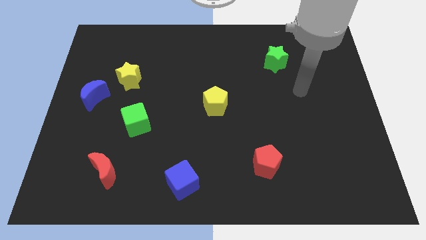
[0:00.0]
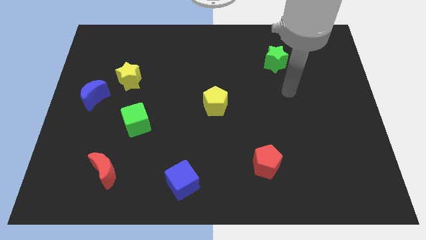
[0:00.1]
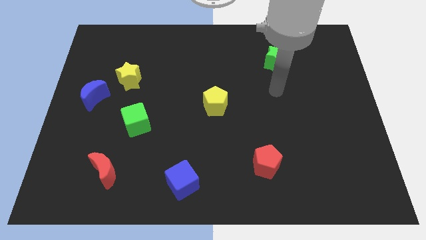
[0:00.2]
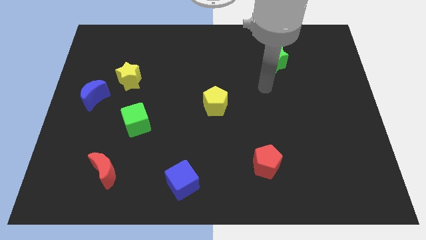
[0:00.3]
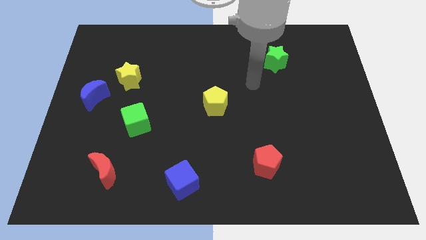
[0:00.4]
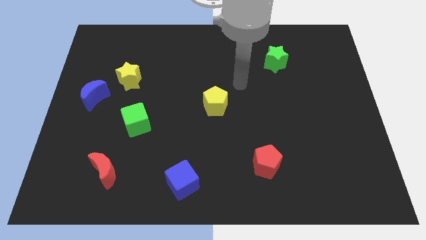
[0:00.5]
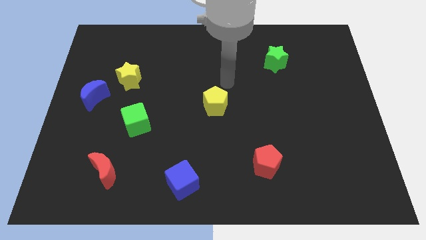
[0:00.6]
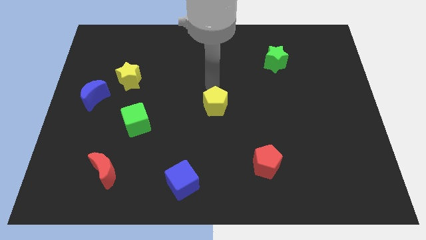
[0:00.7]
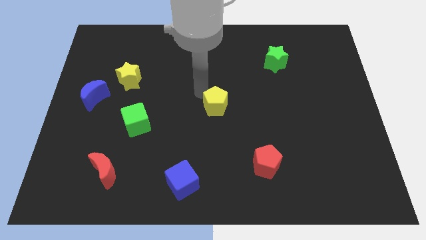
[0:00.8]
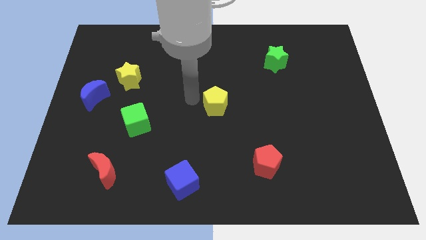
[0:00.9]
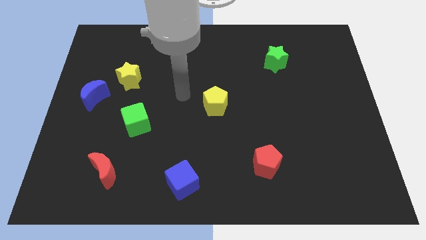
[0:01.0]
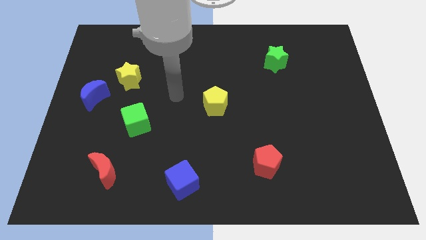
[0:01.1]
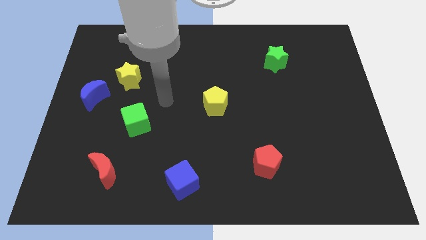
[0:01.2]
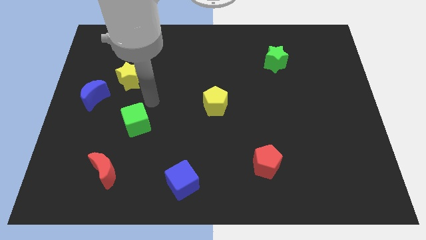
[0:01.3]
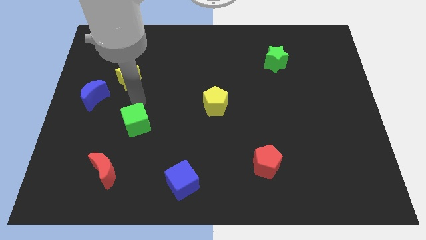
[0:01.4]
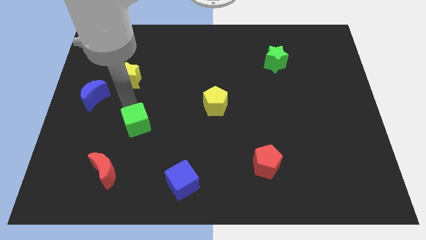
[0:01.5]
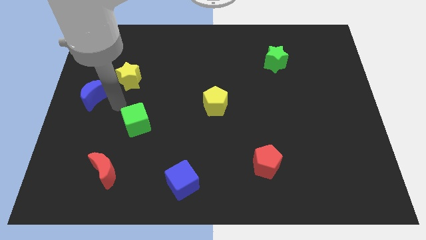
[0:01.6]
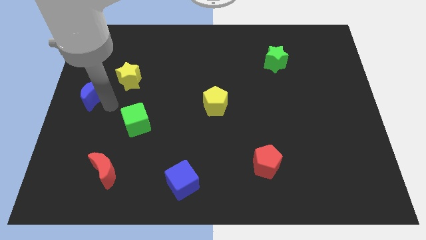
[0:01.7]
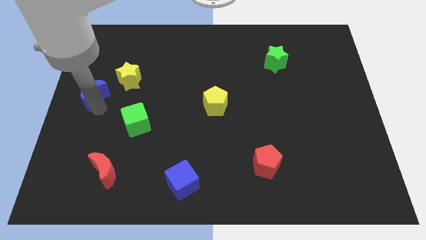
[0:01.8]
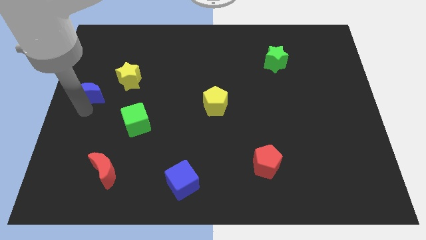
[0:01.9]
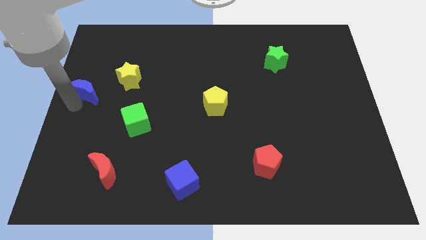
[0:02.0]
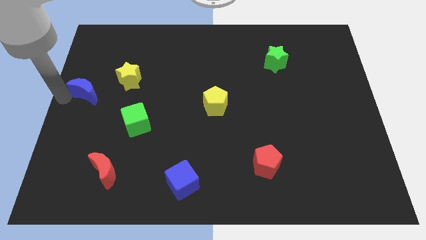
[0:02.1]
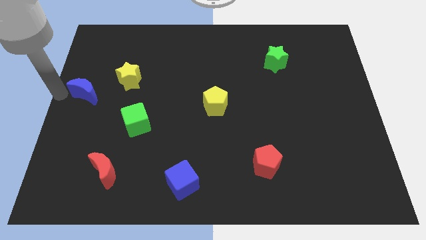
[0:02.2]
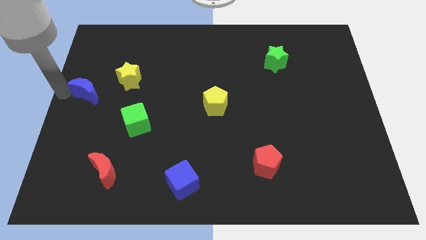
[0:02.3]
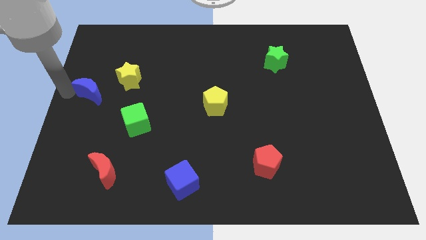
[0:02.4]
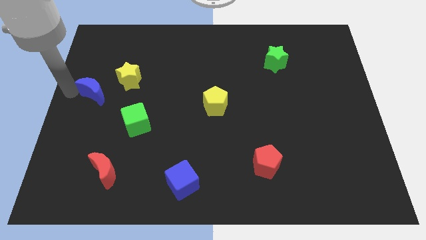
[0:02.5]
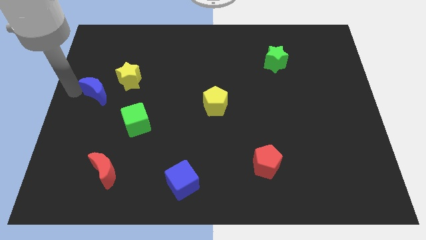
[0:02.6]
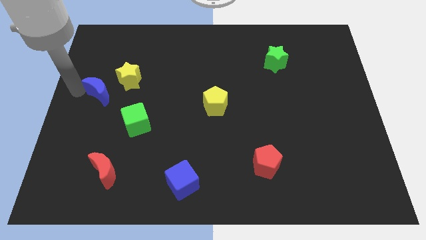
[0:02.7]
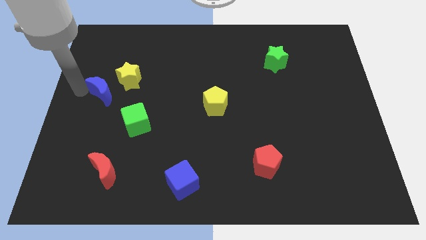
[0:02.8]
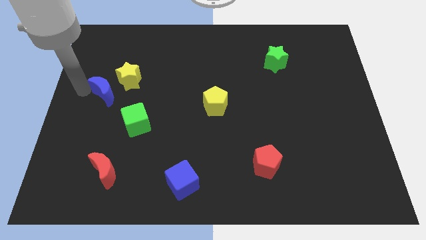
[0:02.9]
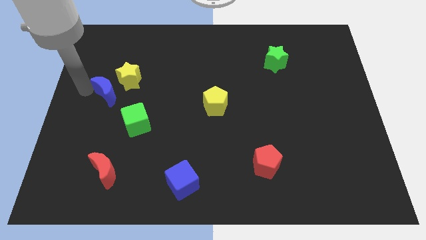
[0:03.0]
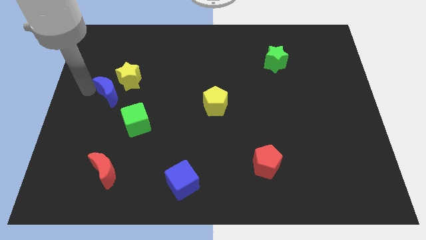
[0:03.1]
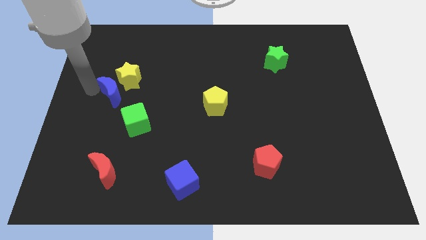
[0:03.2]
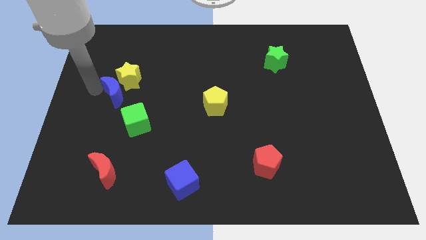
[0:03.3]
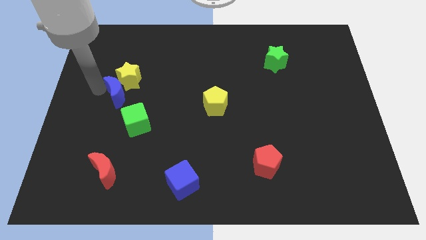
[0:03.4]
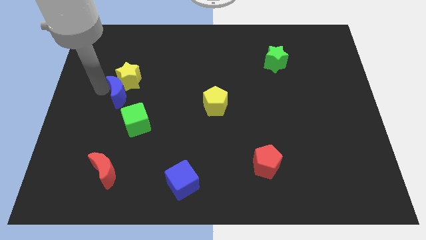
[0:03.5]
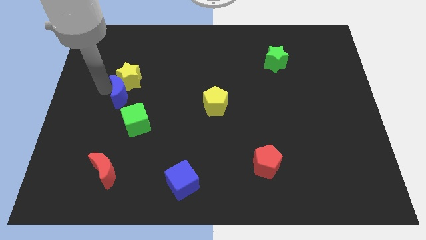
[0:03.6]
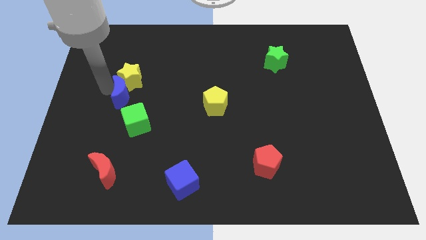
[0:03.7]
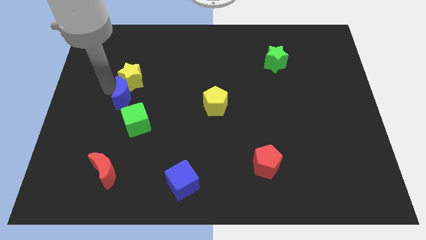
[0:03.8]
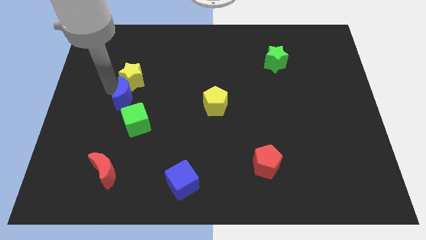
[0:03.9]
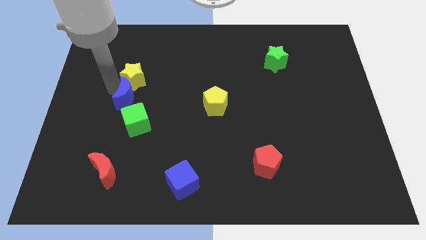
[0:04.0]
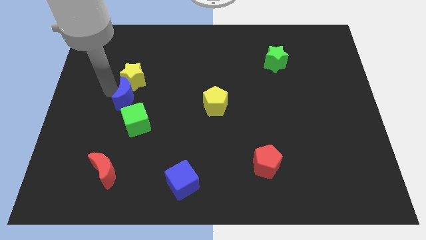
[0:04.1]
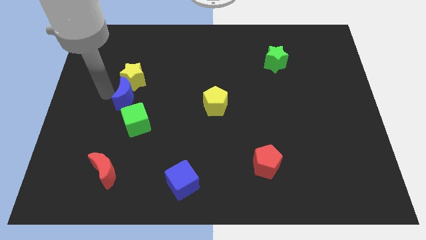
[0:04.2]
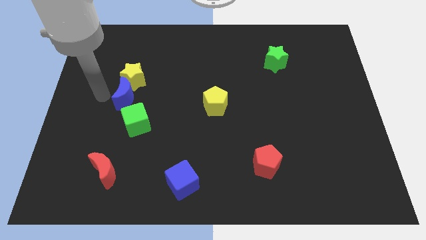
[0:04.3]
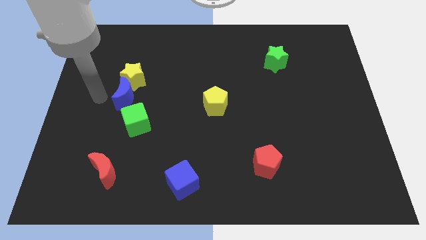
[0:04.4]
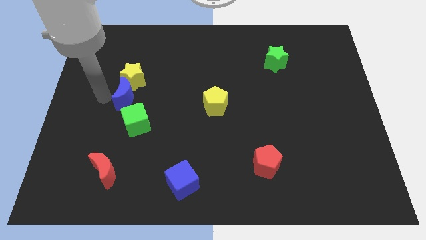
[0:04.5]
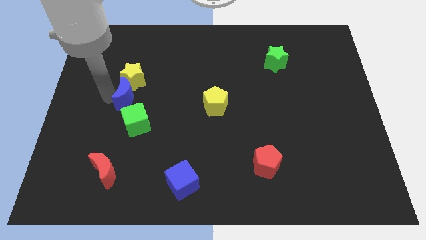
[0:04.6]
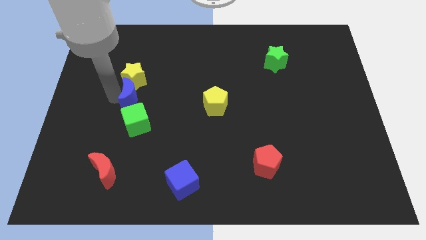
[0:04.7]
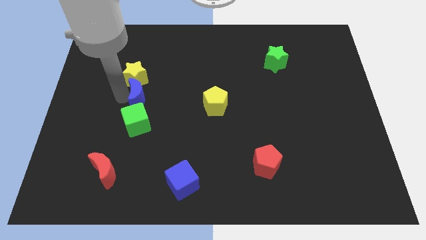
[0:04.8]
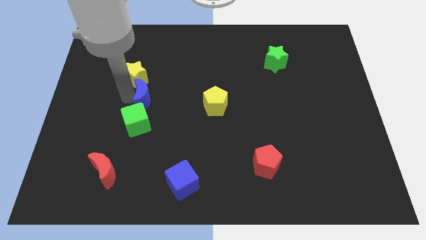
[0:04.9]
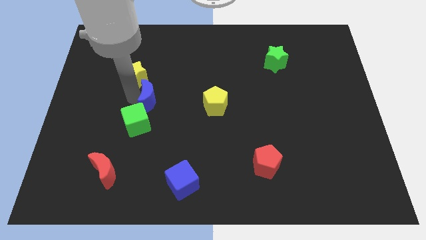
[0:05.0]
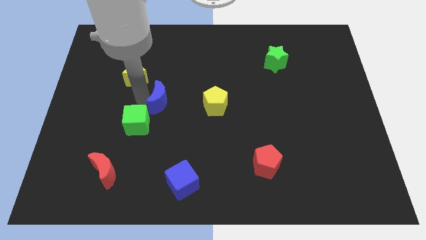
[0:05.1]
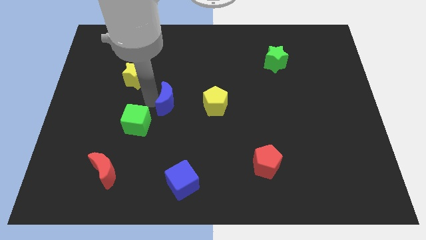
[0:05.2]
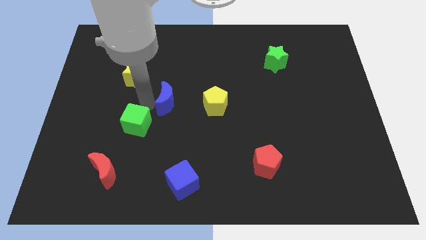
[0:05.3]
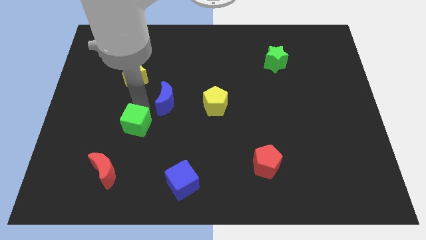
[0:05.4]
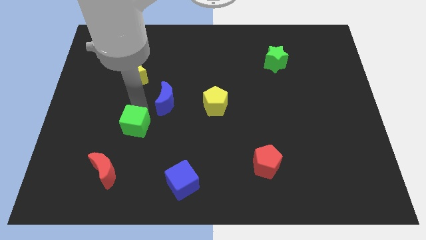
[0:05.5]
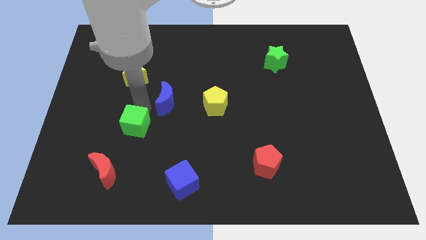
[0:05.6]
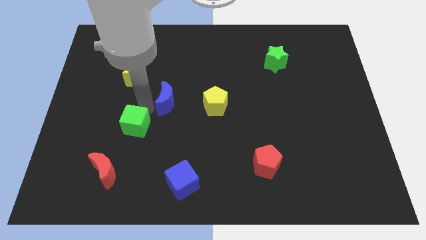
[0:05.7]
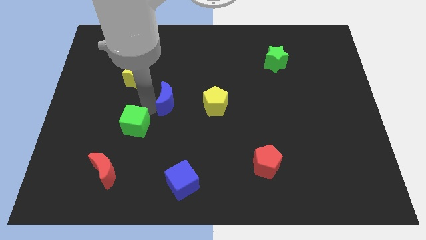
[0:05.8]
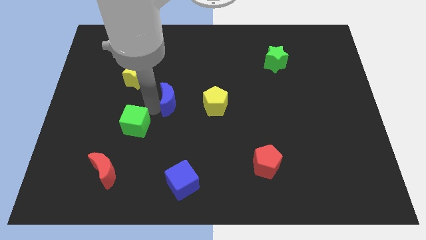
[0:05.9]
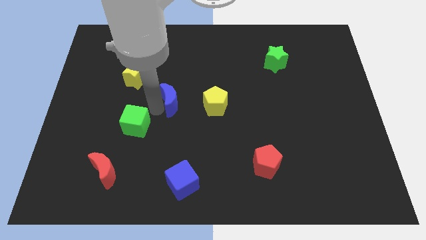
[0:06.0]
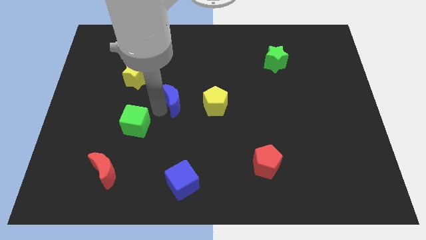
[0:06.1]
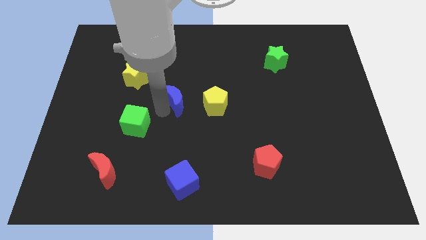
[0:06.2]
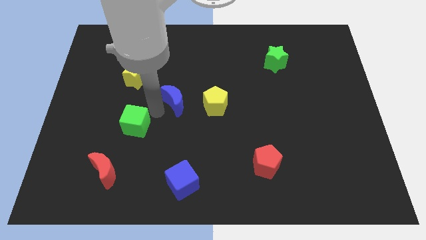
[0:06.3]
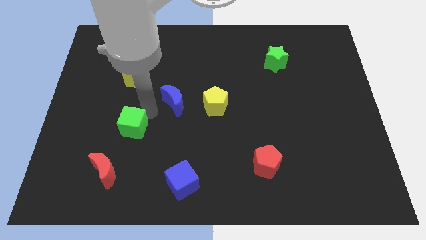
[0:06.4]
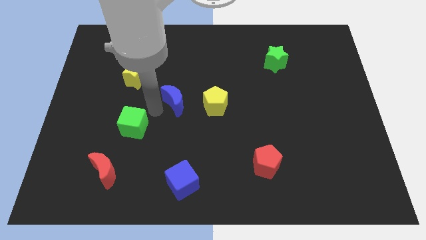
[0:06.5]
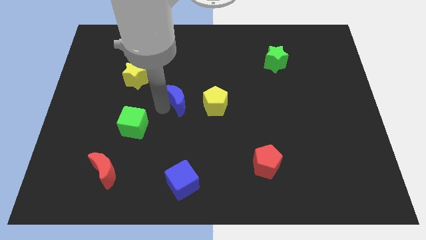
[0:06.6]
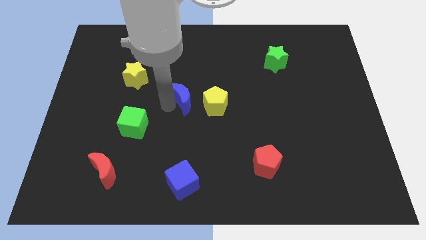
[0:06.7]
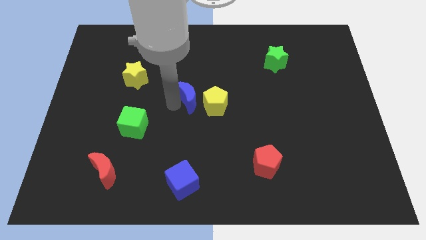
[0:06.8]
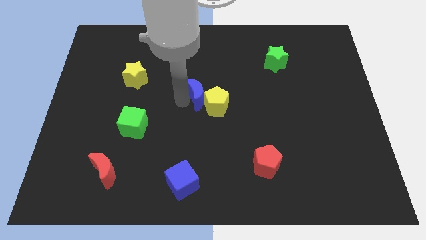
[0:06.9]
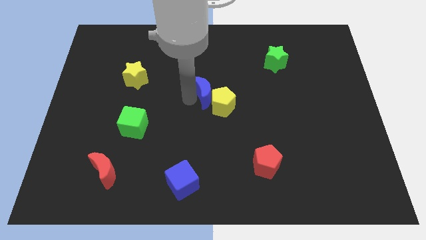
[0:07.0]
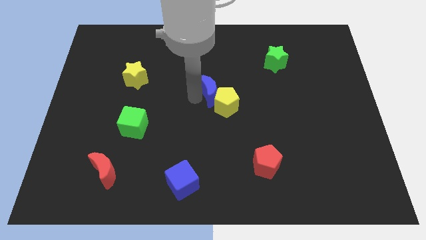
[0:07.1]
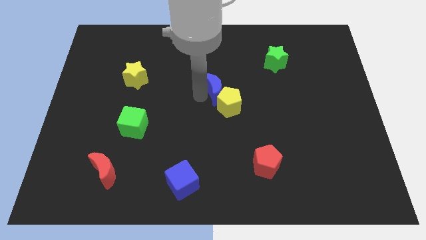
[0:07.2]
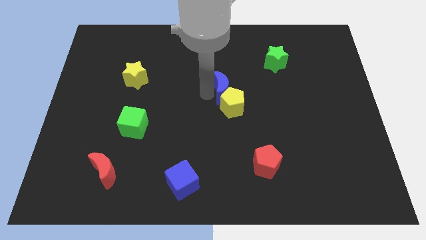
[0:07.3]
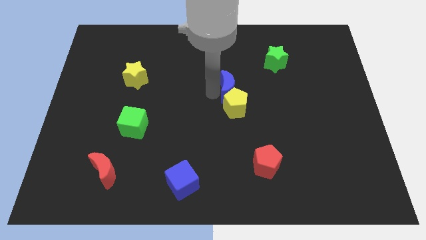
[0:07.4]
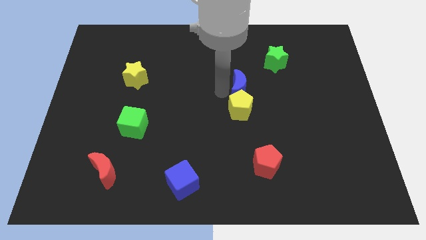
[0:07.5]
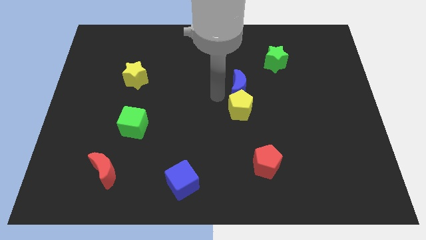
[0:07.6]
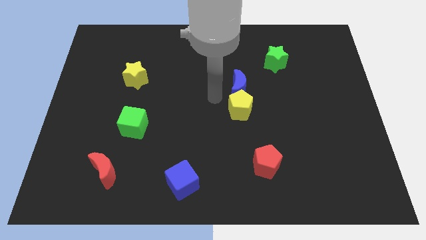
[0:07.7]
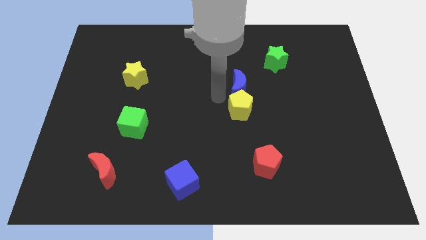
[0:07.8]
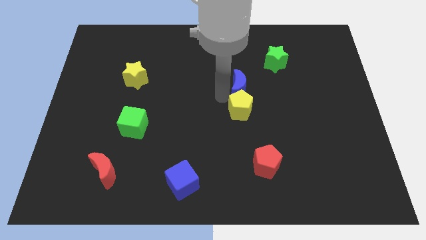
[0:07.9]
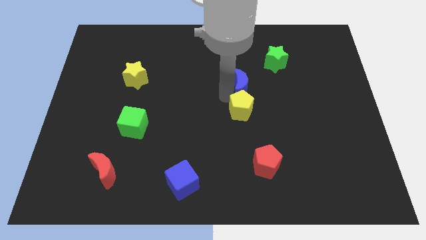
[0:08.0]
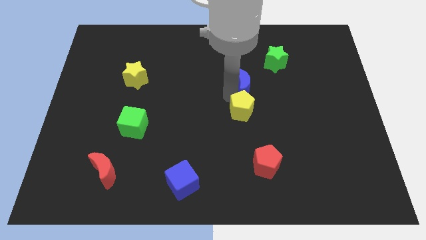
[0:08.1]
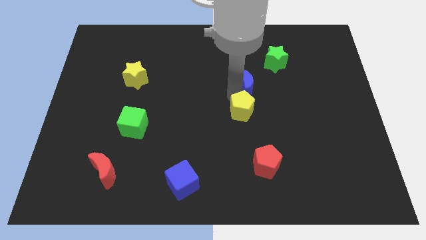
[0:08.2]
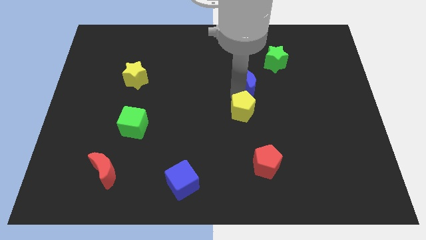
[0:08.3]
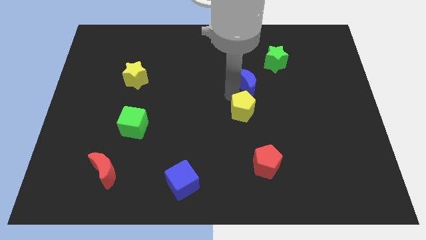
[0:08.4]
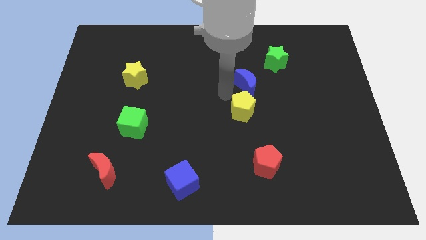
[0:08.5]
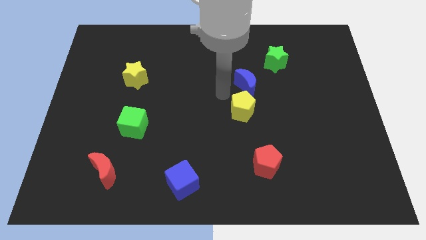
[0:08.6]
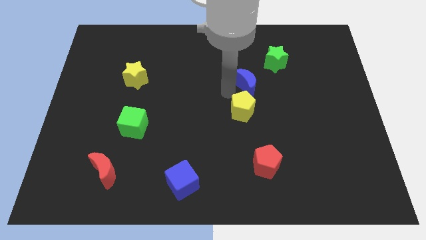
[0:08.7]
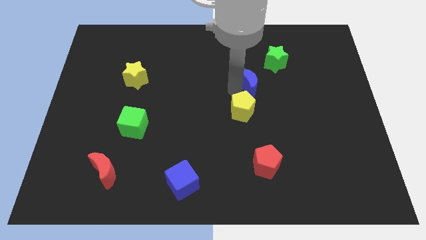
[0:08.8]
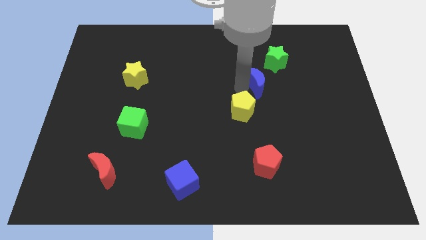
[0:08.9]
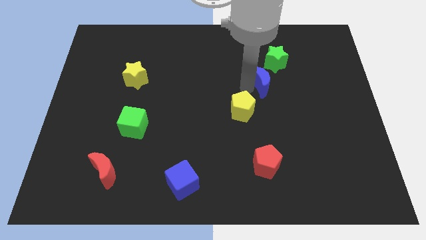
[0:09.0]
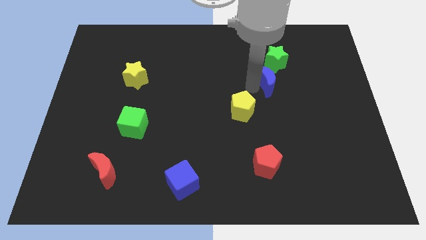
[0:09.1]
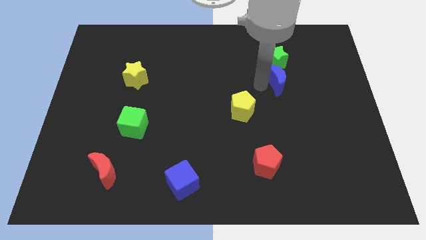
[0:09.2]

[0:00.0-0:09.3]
push the blue moon to the bottom right of the green star
